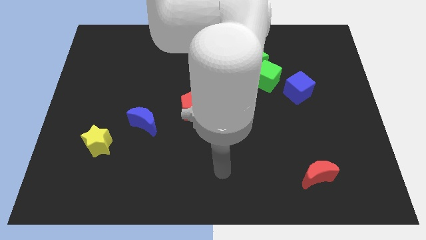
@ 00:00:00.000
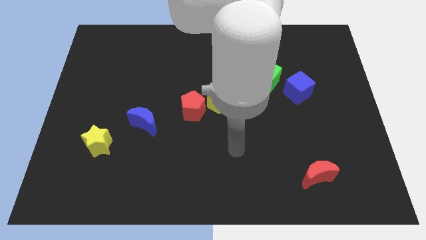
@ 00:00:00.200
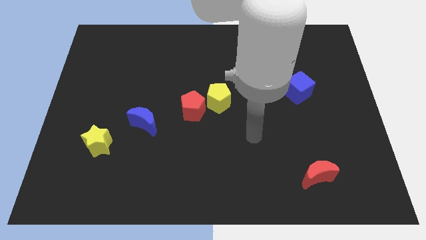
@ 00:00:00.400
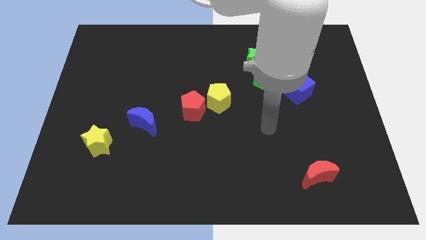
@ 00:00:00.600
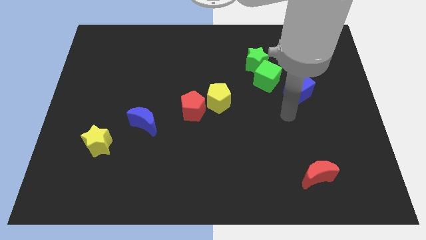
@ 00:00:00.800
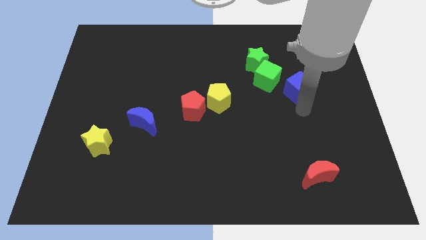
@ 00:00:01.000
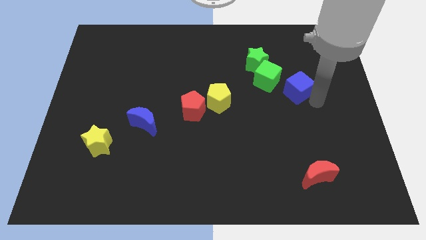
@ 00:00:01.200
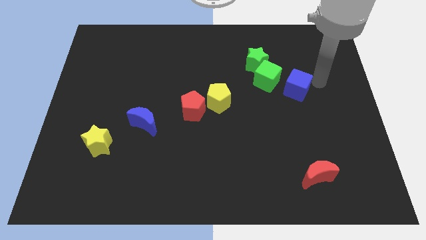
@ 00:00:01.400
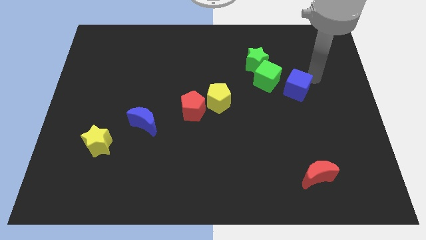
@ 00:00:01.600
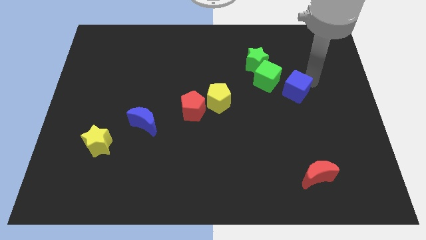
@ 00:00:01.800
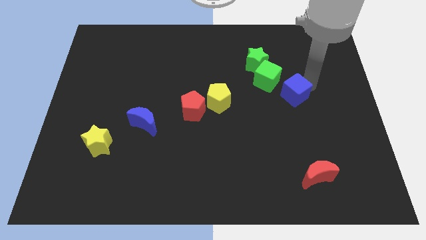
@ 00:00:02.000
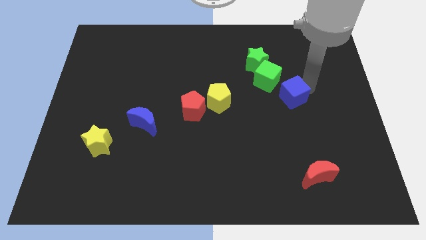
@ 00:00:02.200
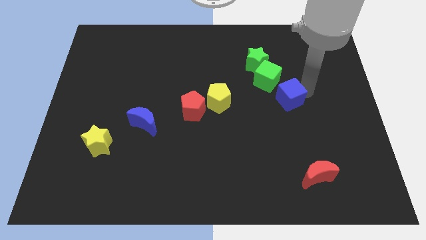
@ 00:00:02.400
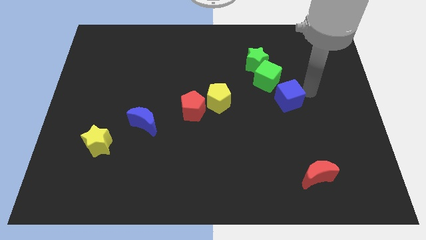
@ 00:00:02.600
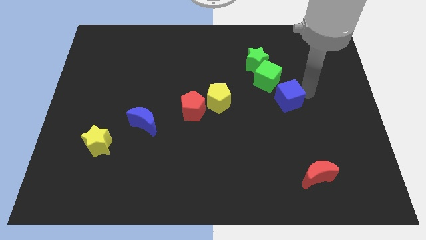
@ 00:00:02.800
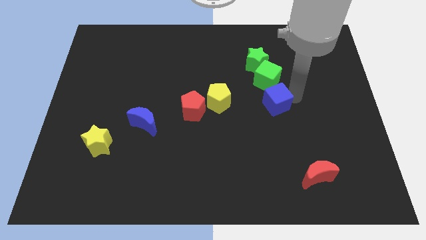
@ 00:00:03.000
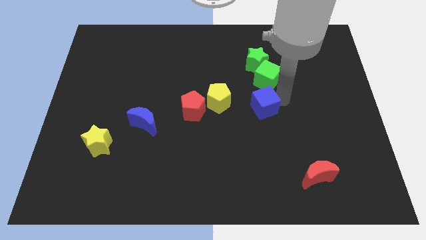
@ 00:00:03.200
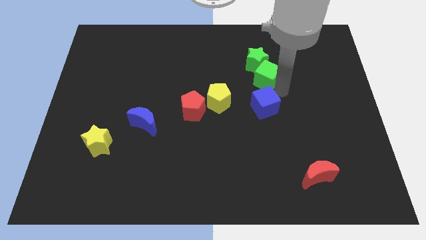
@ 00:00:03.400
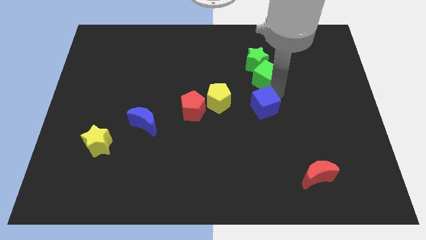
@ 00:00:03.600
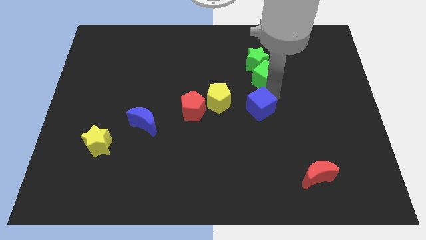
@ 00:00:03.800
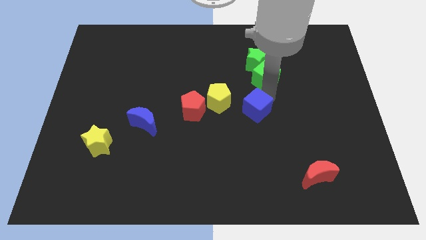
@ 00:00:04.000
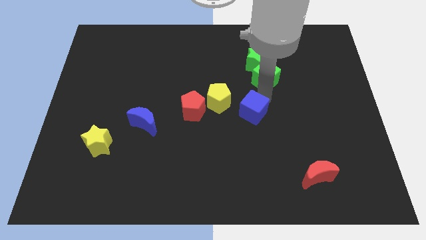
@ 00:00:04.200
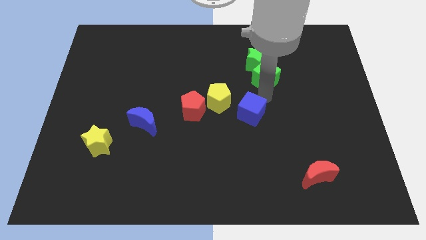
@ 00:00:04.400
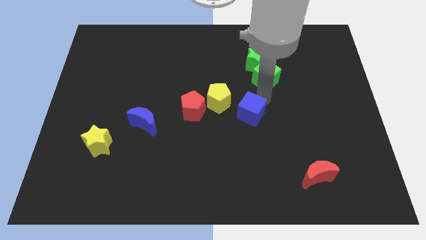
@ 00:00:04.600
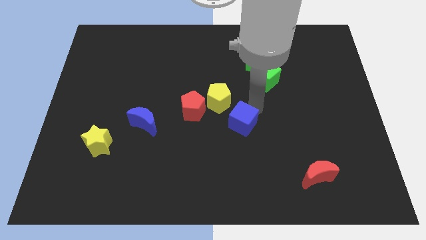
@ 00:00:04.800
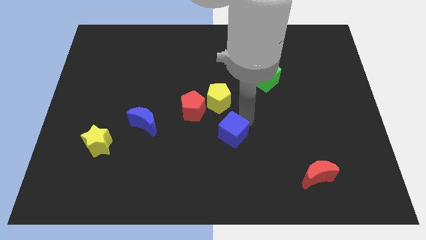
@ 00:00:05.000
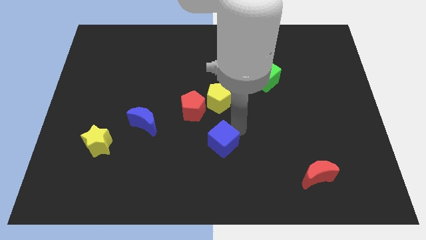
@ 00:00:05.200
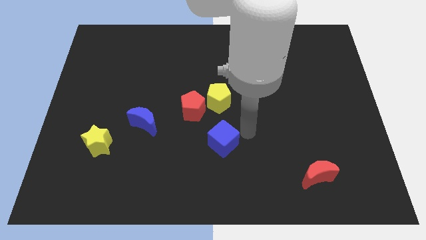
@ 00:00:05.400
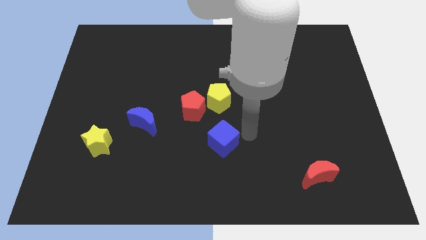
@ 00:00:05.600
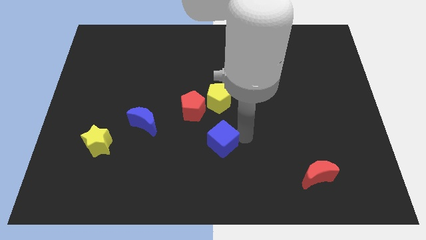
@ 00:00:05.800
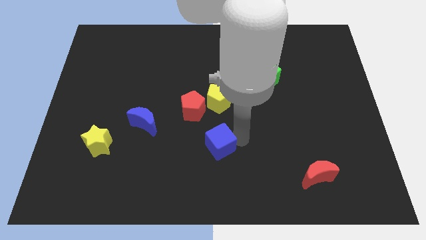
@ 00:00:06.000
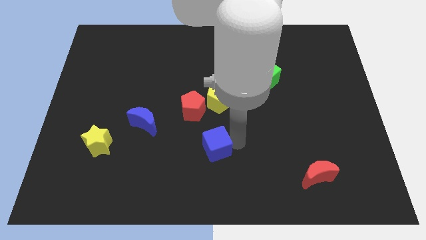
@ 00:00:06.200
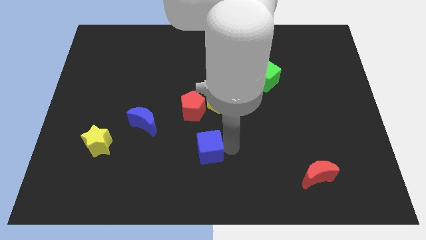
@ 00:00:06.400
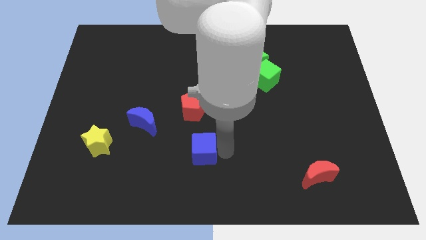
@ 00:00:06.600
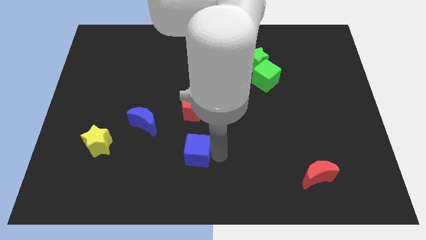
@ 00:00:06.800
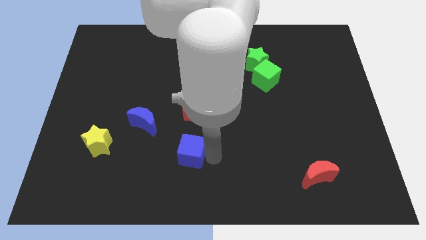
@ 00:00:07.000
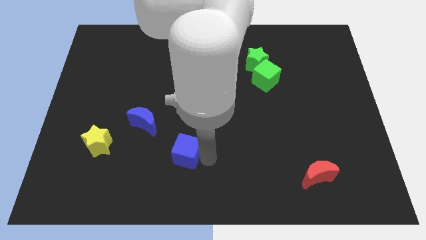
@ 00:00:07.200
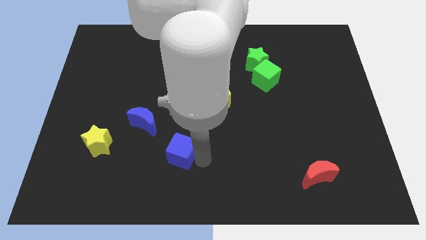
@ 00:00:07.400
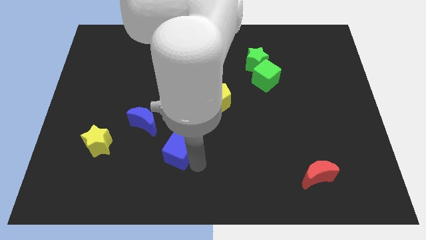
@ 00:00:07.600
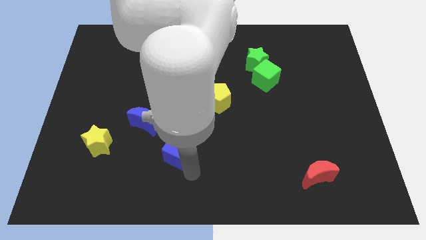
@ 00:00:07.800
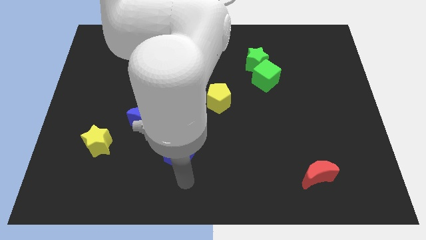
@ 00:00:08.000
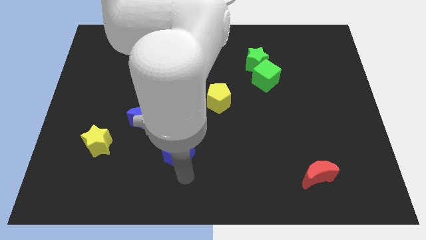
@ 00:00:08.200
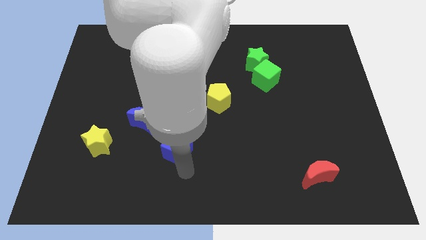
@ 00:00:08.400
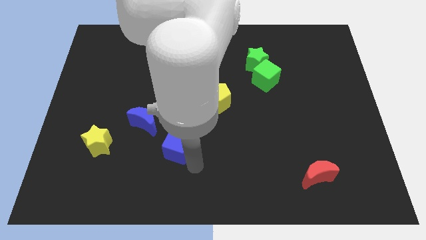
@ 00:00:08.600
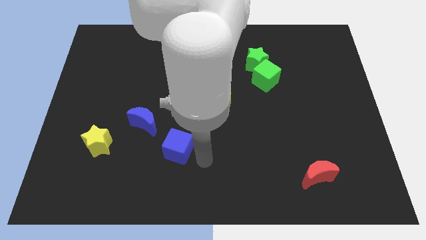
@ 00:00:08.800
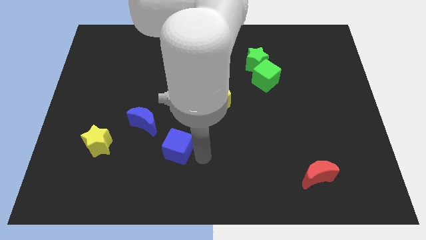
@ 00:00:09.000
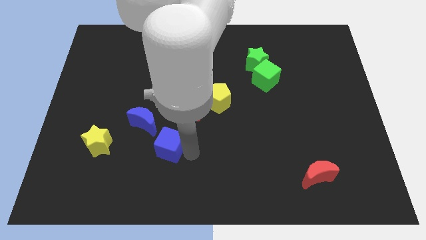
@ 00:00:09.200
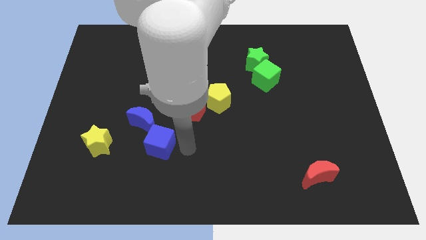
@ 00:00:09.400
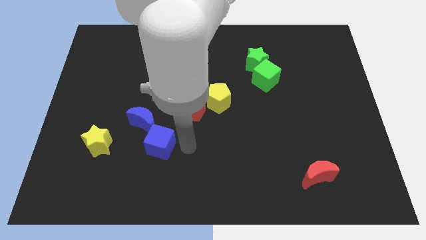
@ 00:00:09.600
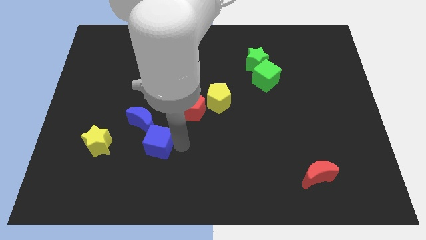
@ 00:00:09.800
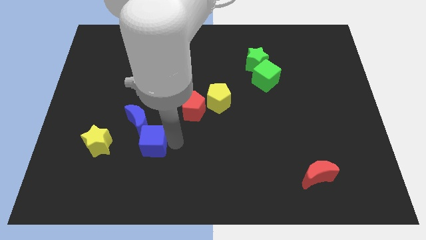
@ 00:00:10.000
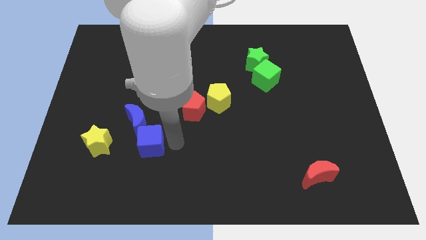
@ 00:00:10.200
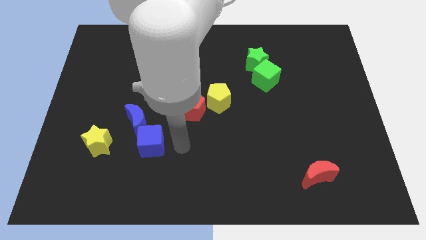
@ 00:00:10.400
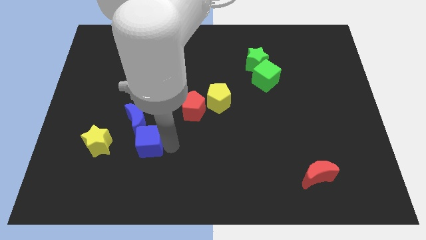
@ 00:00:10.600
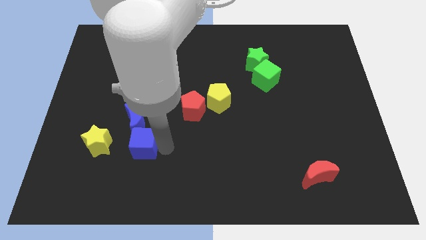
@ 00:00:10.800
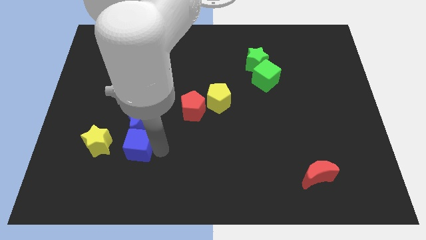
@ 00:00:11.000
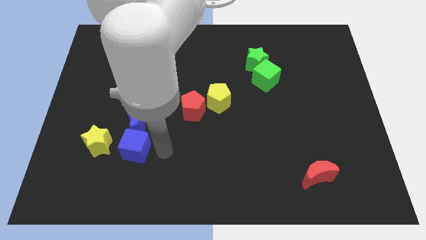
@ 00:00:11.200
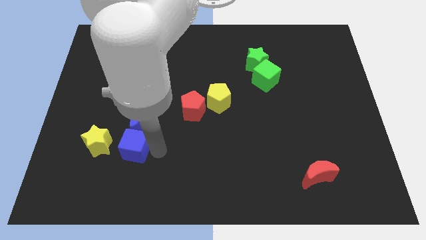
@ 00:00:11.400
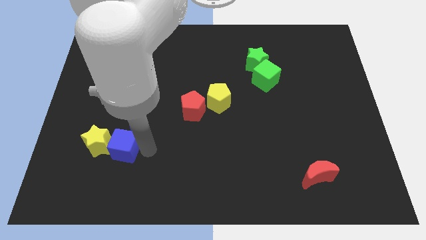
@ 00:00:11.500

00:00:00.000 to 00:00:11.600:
slide the blue cube to the yellow star

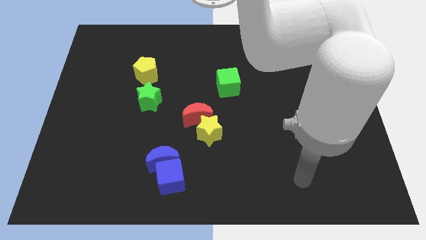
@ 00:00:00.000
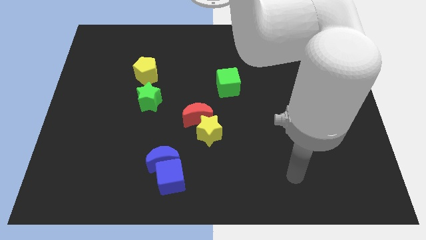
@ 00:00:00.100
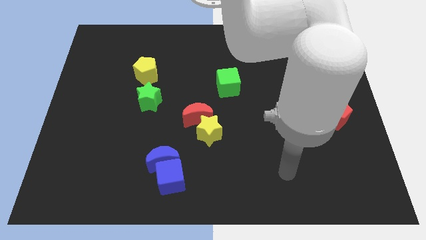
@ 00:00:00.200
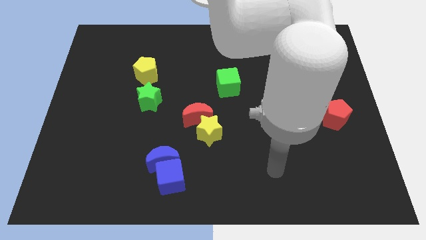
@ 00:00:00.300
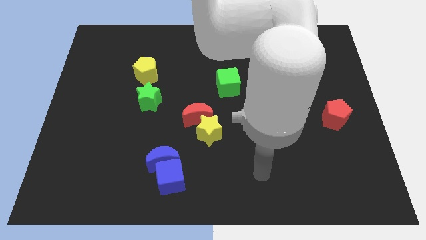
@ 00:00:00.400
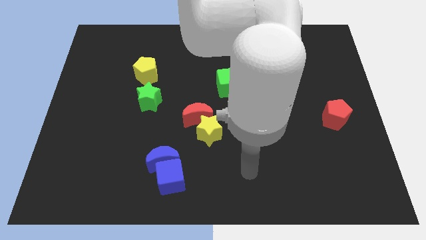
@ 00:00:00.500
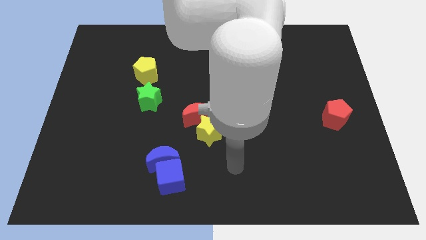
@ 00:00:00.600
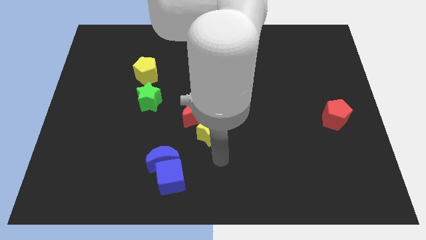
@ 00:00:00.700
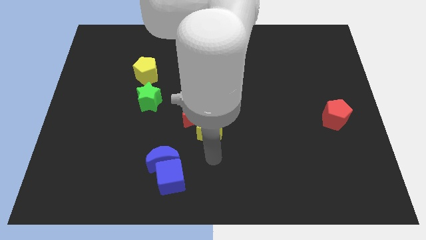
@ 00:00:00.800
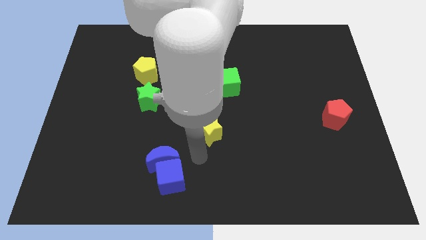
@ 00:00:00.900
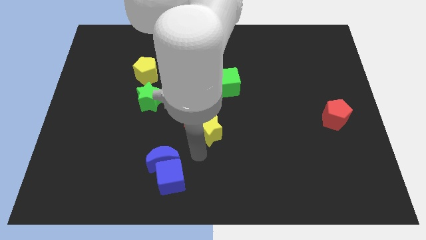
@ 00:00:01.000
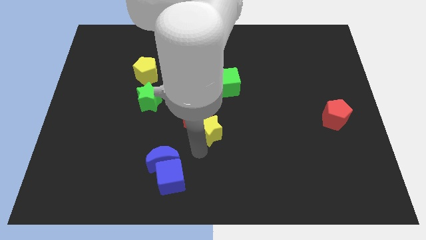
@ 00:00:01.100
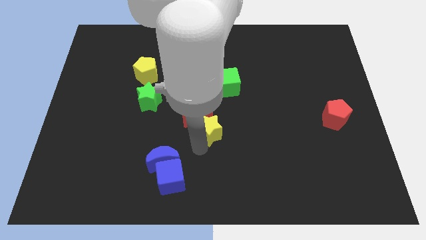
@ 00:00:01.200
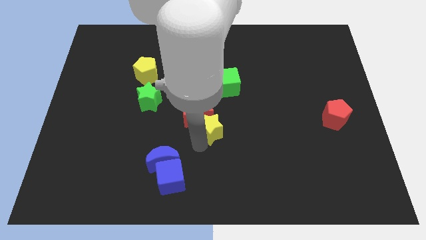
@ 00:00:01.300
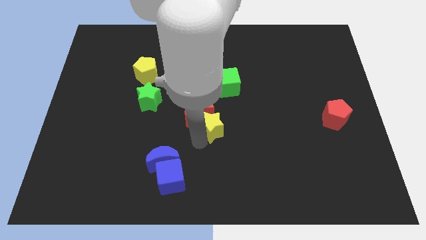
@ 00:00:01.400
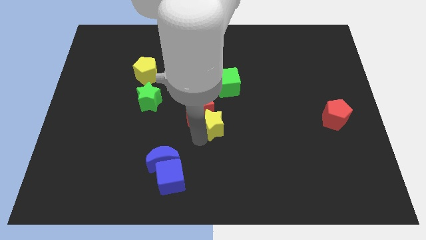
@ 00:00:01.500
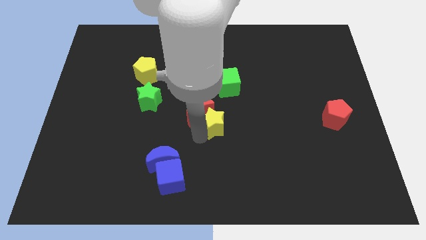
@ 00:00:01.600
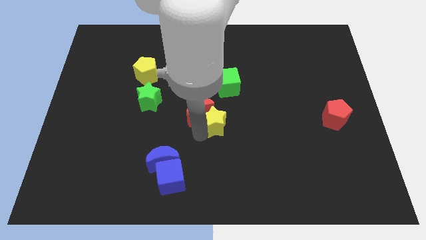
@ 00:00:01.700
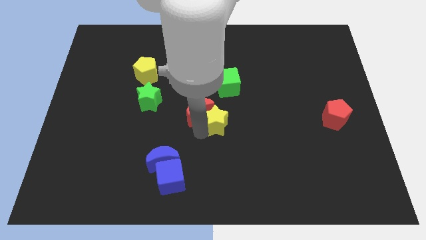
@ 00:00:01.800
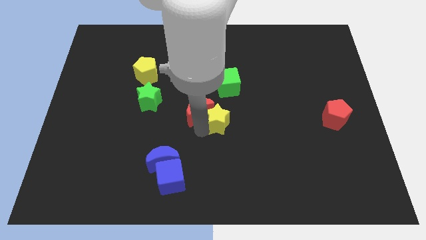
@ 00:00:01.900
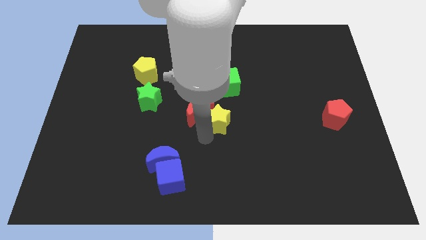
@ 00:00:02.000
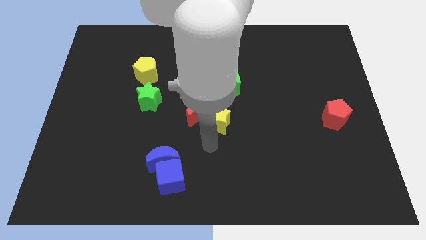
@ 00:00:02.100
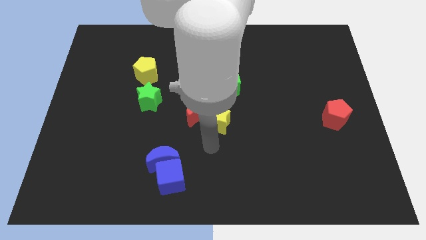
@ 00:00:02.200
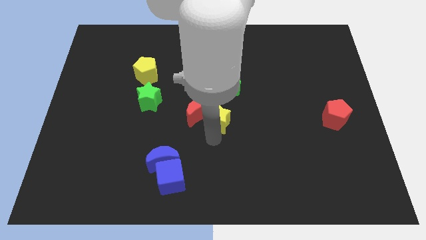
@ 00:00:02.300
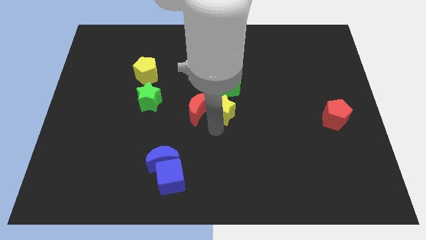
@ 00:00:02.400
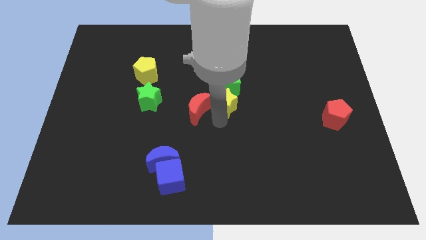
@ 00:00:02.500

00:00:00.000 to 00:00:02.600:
move the yellow star next to the green cube
